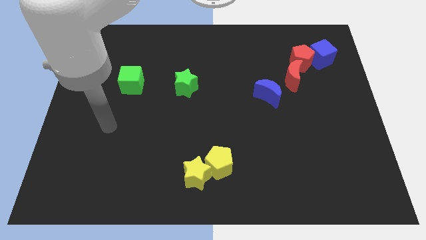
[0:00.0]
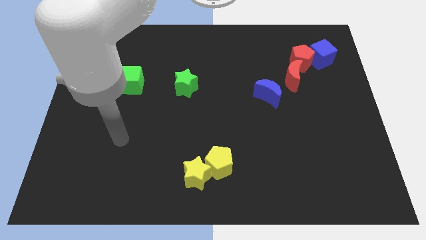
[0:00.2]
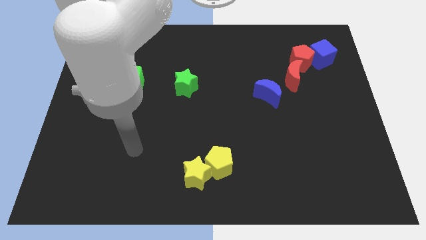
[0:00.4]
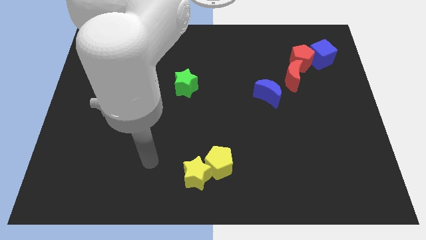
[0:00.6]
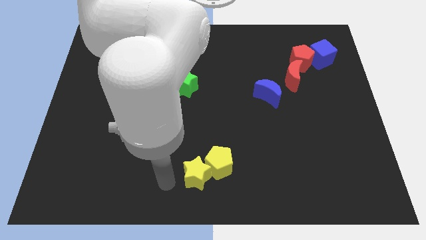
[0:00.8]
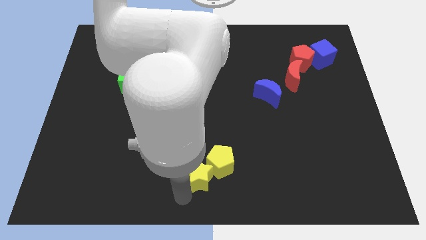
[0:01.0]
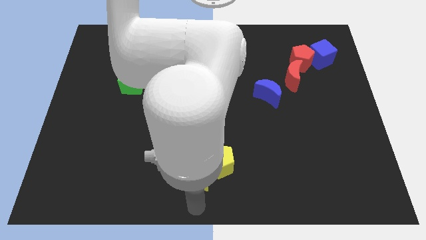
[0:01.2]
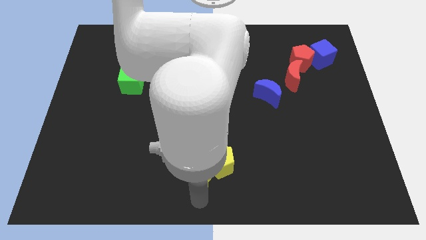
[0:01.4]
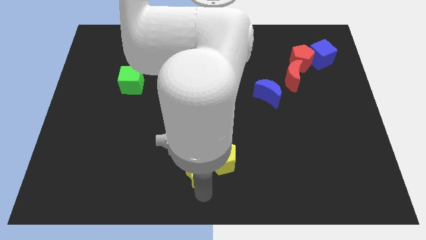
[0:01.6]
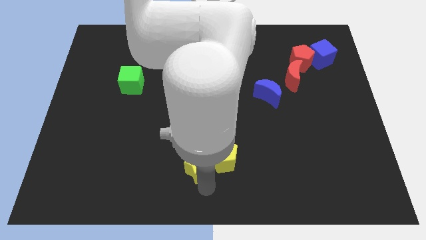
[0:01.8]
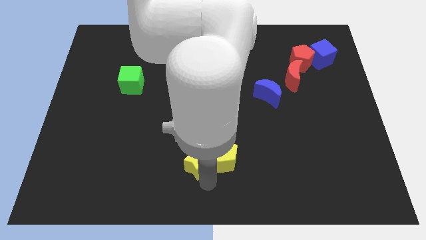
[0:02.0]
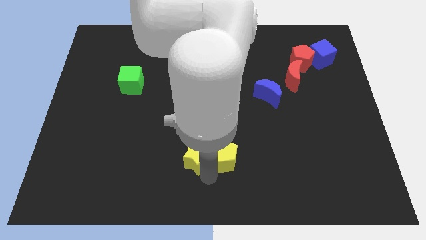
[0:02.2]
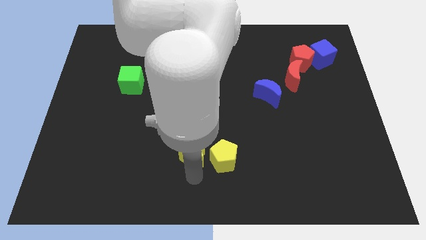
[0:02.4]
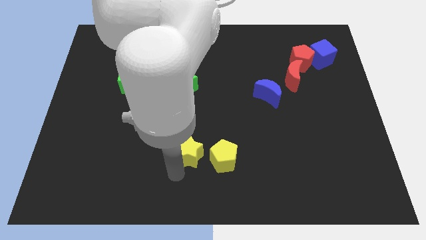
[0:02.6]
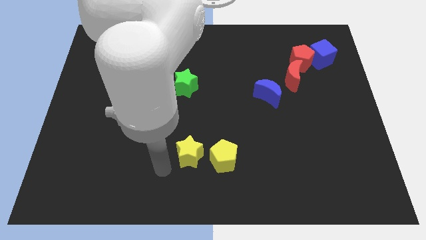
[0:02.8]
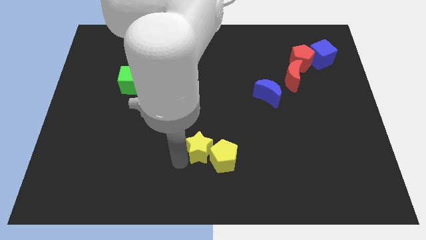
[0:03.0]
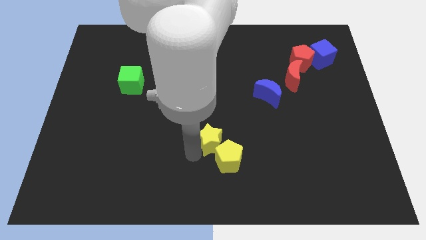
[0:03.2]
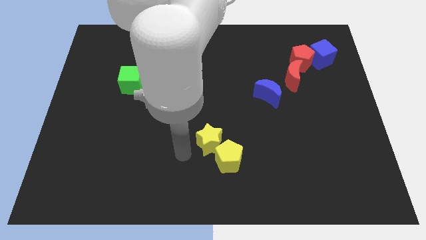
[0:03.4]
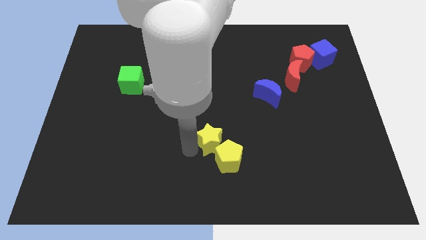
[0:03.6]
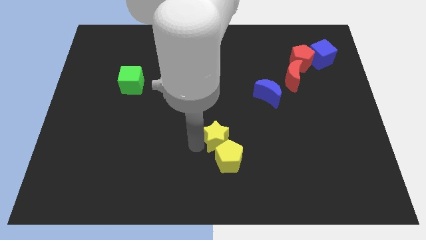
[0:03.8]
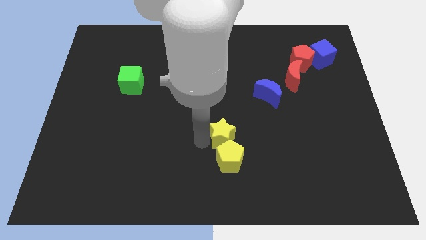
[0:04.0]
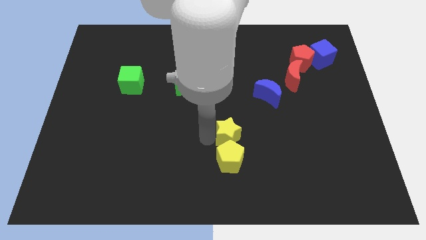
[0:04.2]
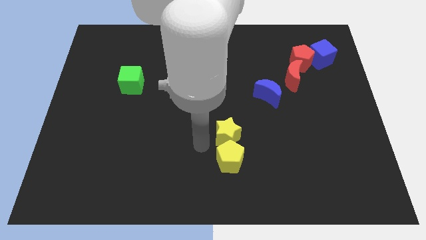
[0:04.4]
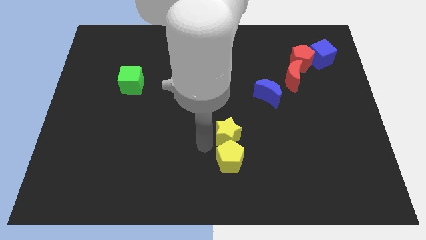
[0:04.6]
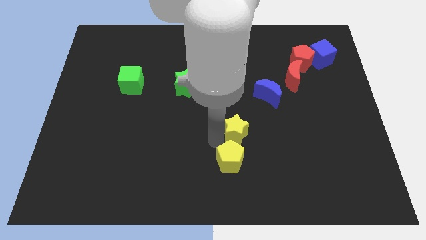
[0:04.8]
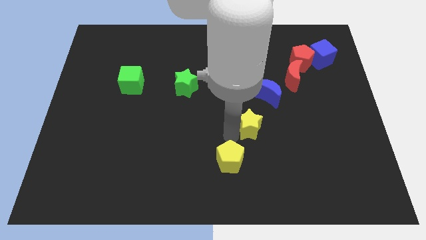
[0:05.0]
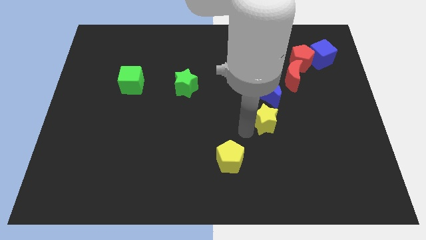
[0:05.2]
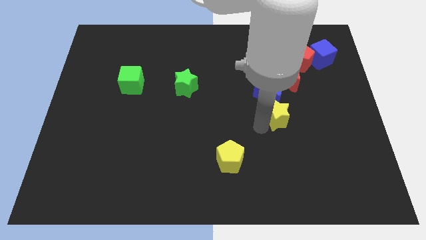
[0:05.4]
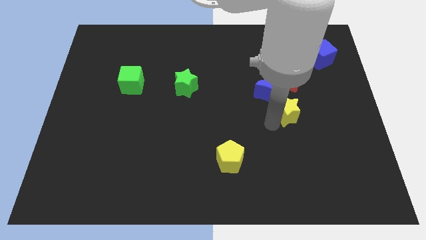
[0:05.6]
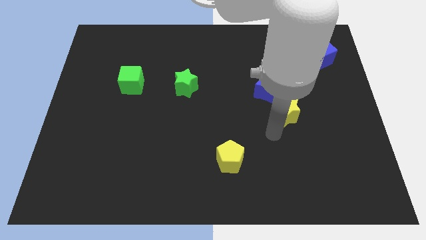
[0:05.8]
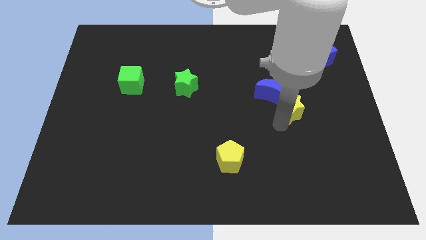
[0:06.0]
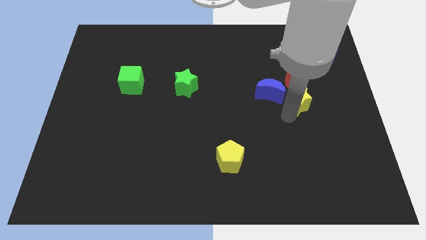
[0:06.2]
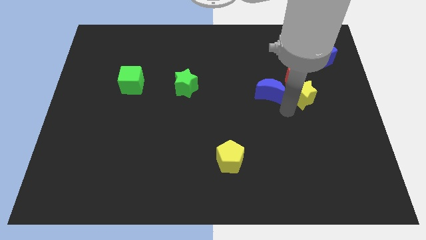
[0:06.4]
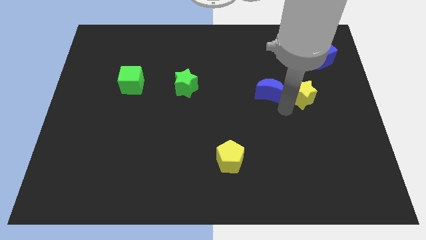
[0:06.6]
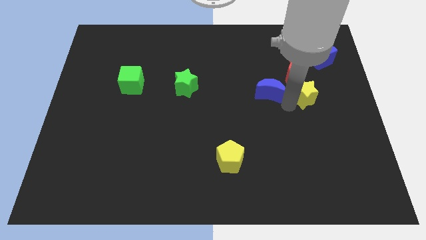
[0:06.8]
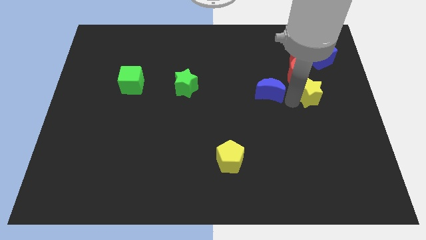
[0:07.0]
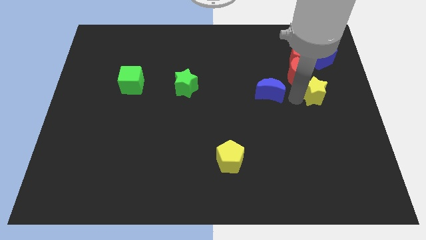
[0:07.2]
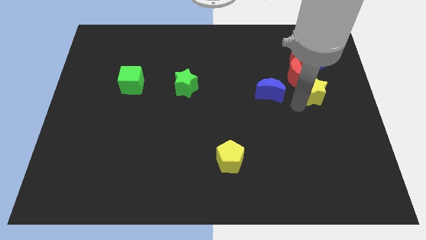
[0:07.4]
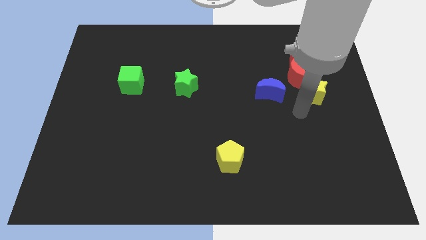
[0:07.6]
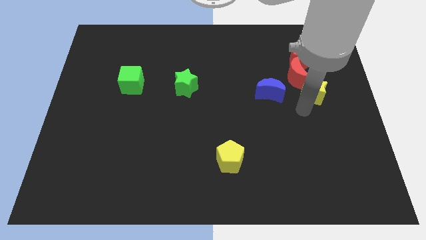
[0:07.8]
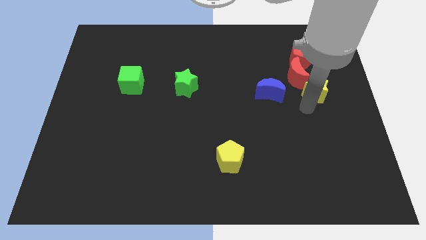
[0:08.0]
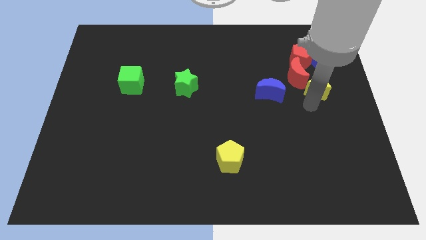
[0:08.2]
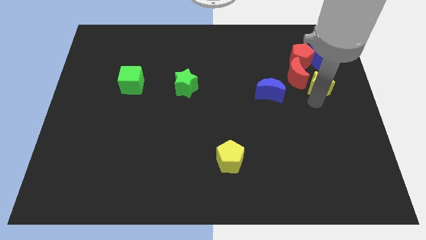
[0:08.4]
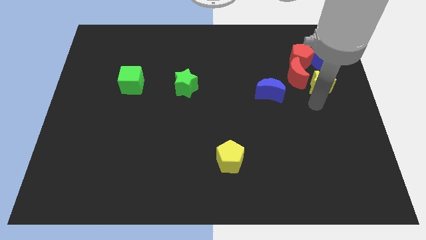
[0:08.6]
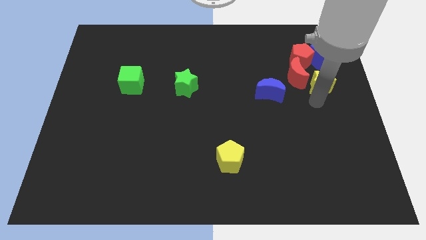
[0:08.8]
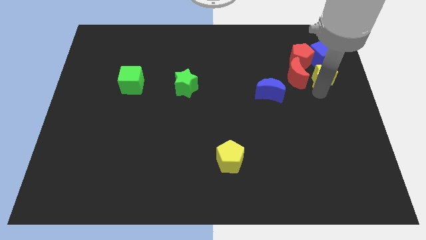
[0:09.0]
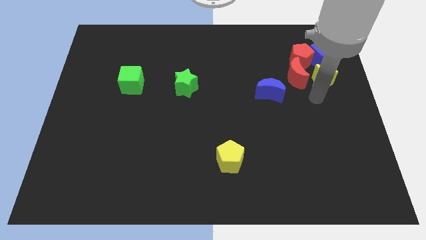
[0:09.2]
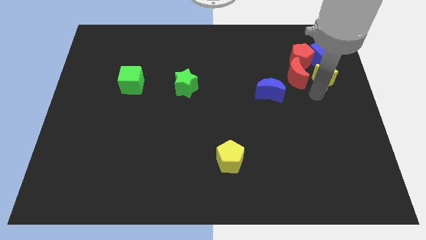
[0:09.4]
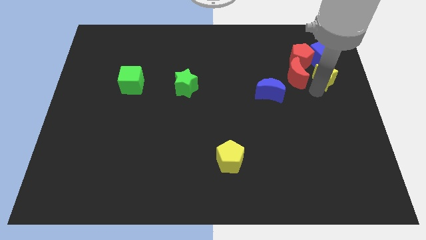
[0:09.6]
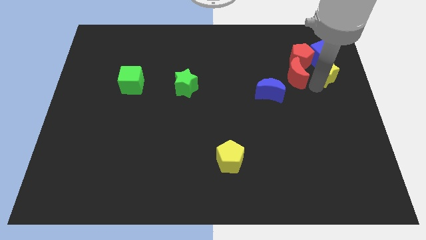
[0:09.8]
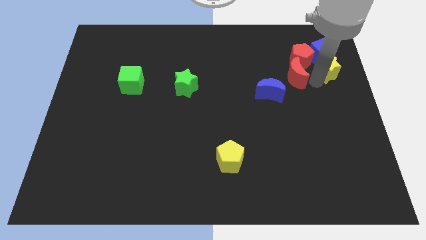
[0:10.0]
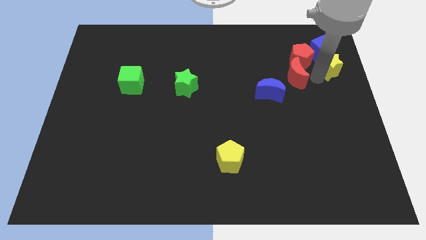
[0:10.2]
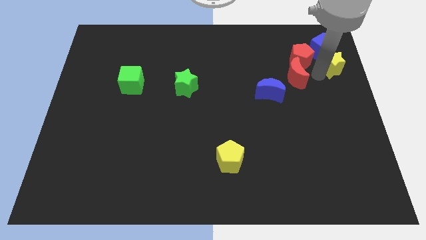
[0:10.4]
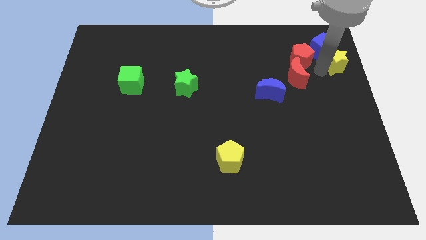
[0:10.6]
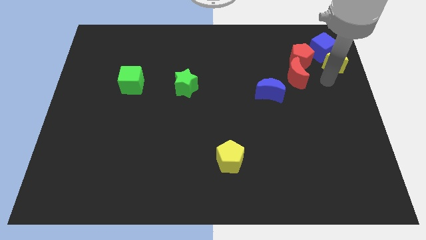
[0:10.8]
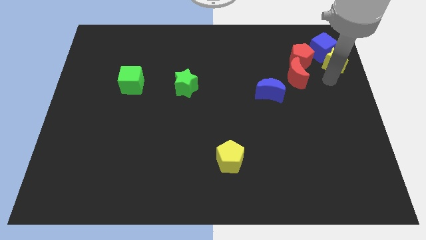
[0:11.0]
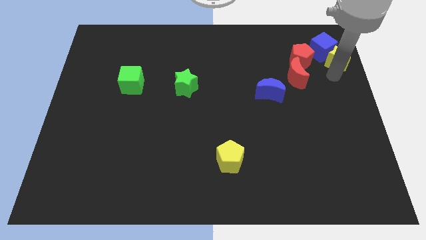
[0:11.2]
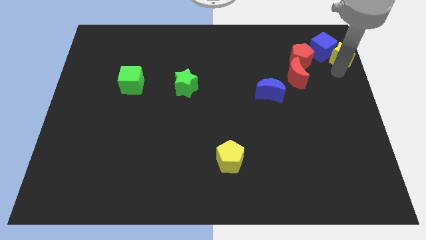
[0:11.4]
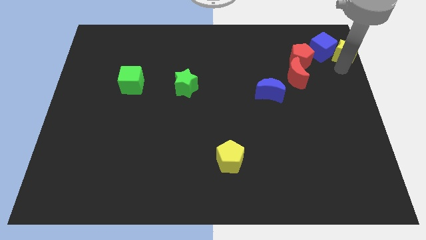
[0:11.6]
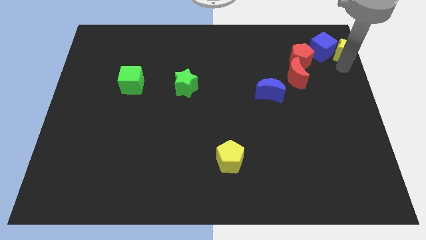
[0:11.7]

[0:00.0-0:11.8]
put the yellow star to the upper right corner

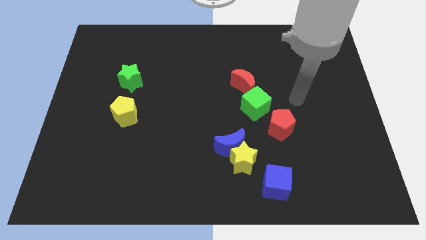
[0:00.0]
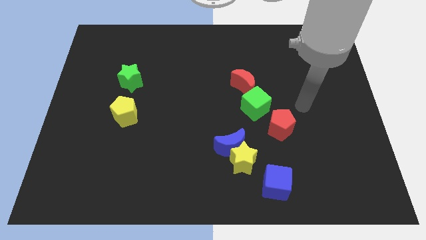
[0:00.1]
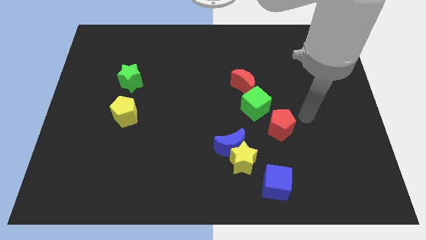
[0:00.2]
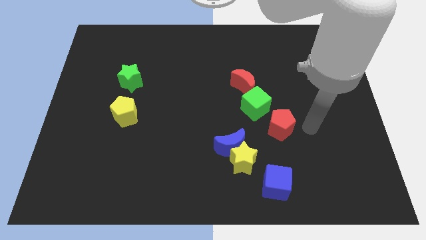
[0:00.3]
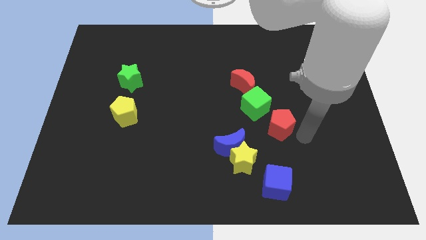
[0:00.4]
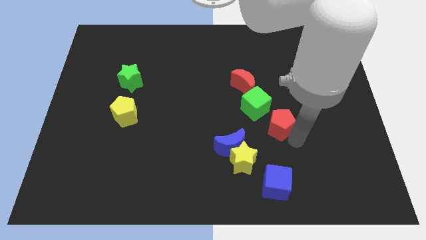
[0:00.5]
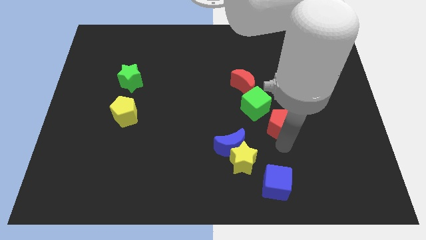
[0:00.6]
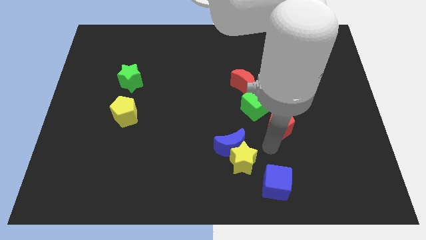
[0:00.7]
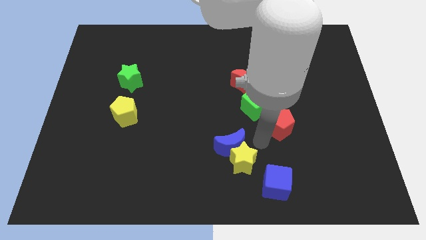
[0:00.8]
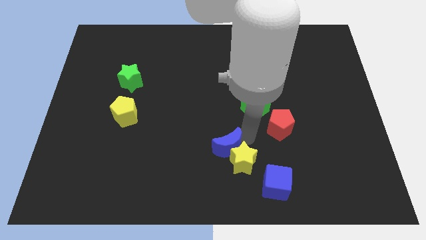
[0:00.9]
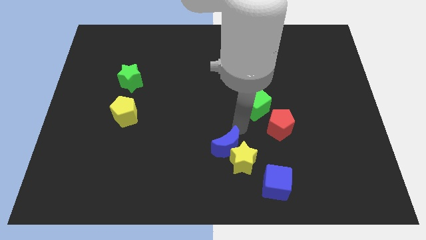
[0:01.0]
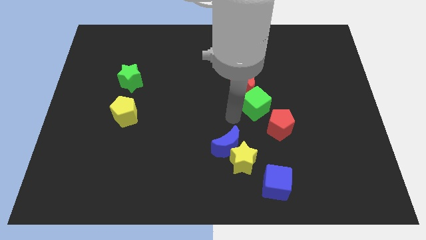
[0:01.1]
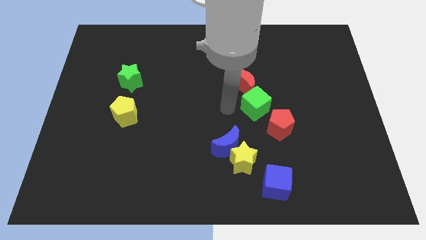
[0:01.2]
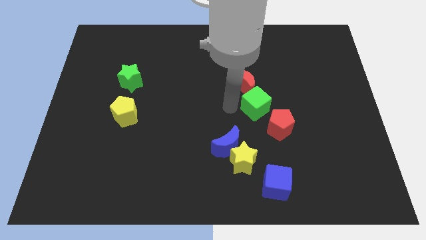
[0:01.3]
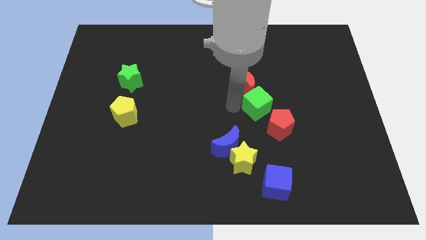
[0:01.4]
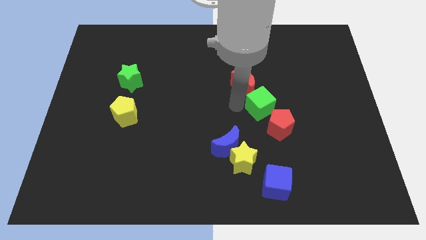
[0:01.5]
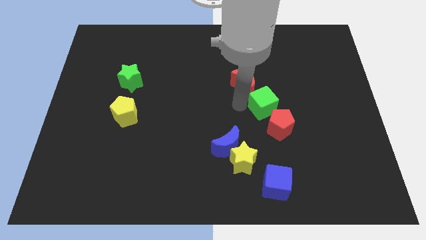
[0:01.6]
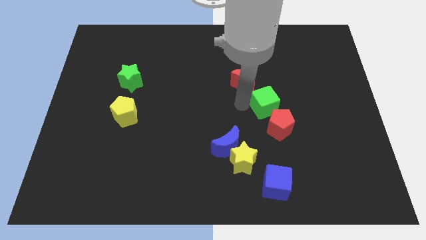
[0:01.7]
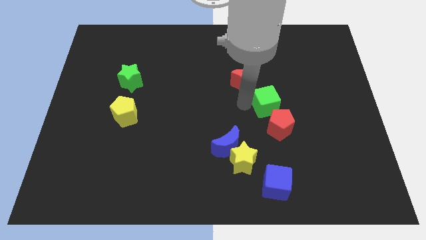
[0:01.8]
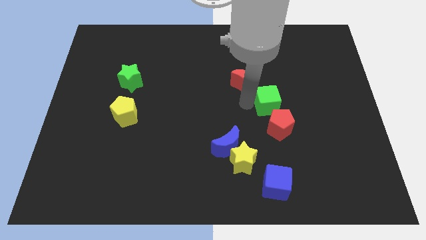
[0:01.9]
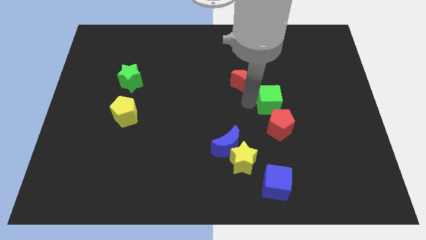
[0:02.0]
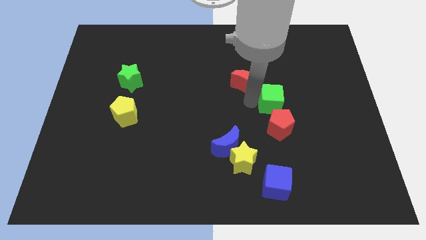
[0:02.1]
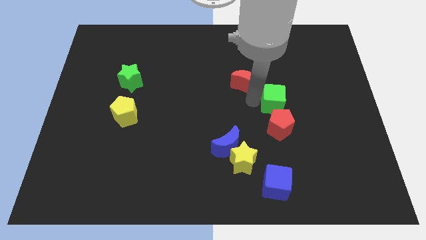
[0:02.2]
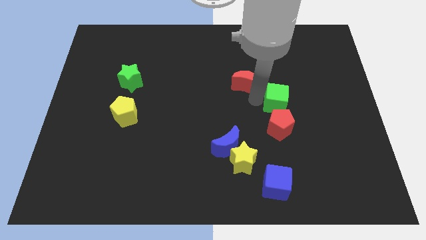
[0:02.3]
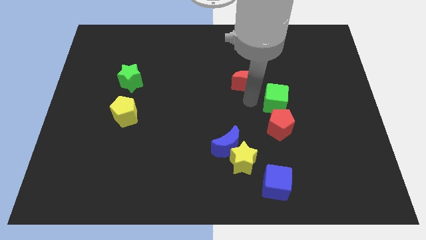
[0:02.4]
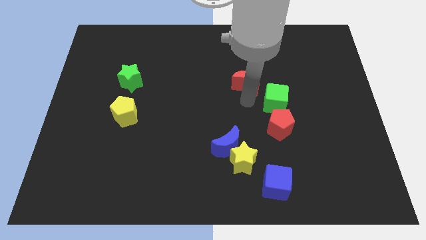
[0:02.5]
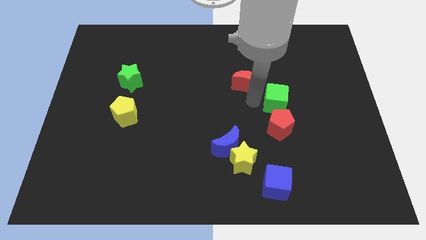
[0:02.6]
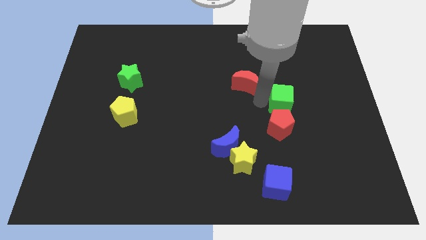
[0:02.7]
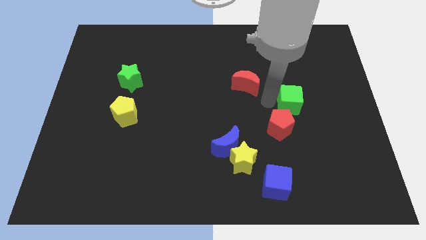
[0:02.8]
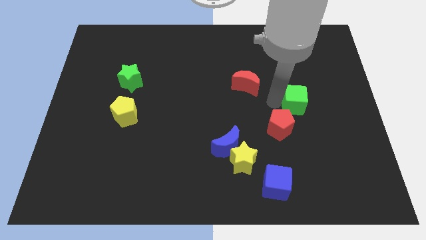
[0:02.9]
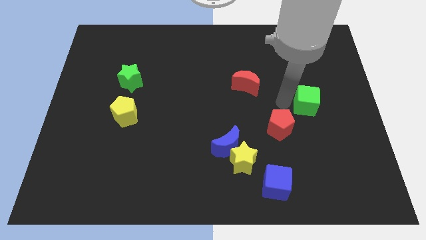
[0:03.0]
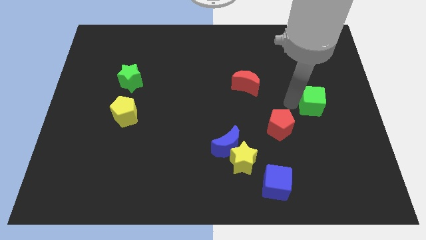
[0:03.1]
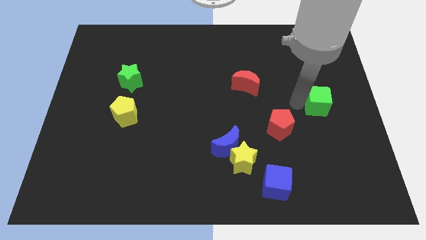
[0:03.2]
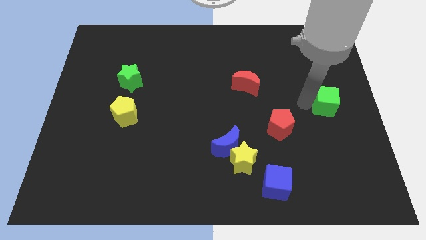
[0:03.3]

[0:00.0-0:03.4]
put the green cube to the right side of the board
